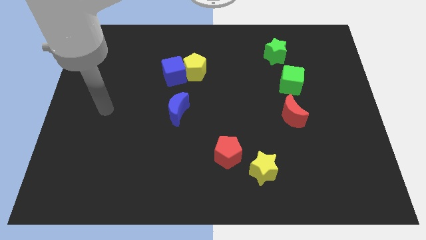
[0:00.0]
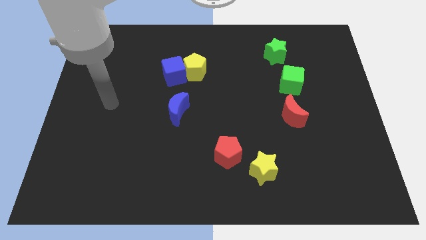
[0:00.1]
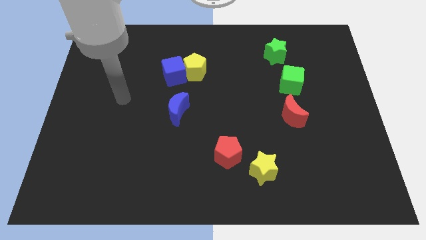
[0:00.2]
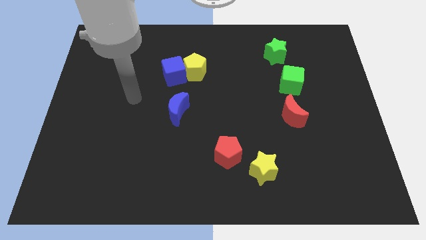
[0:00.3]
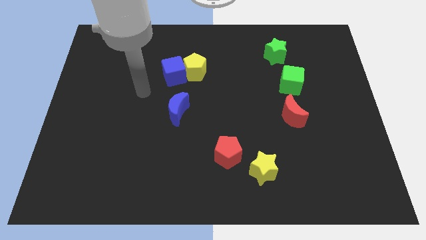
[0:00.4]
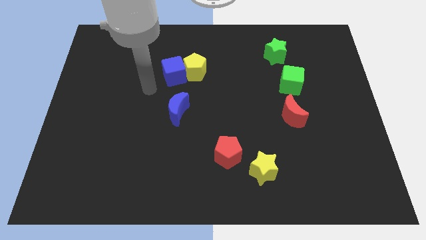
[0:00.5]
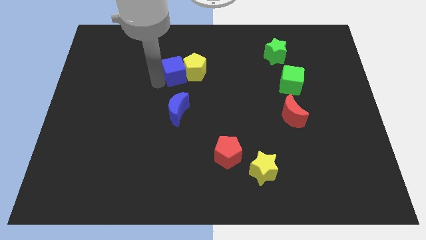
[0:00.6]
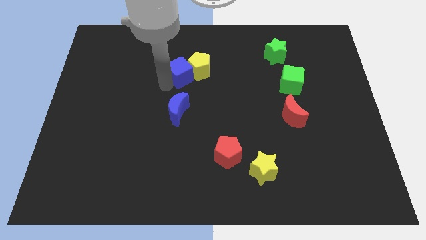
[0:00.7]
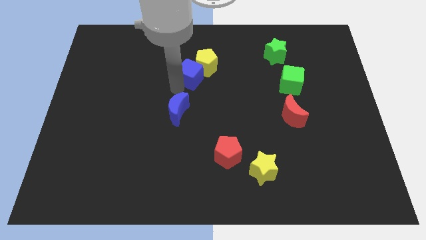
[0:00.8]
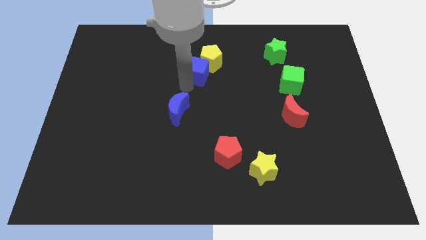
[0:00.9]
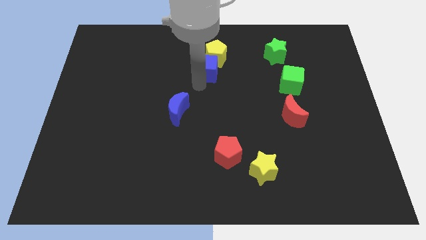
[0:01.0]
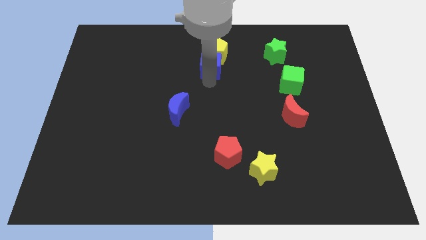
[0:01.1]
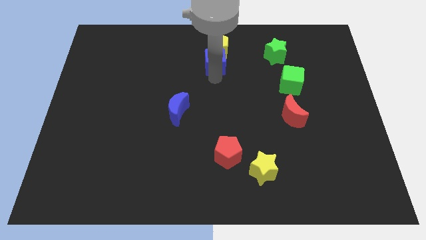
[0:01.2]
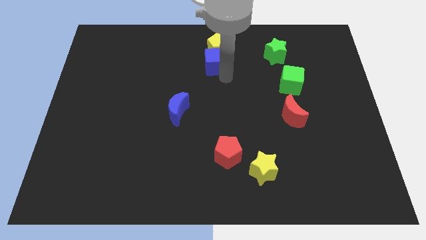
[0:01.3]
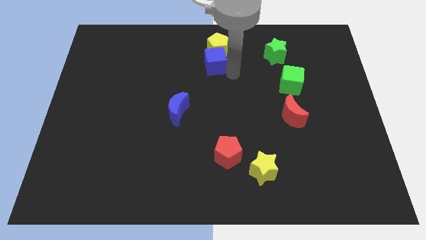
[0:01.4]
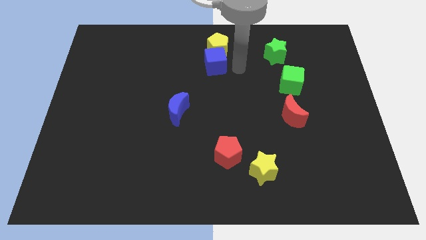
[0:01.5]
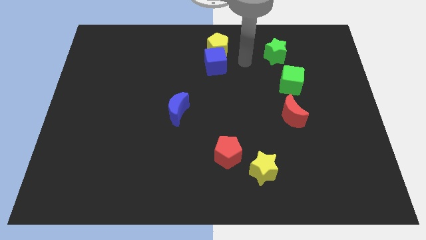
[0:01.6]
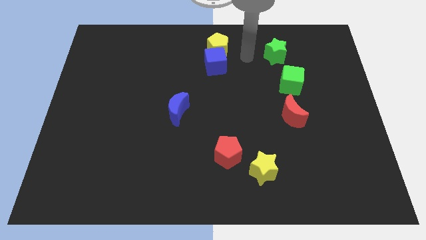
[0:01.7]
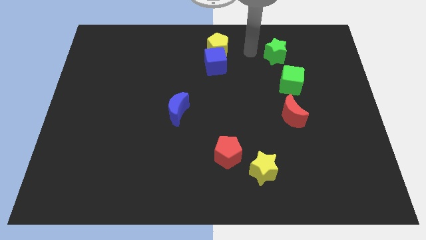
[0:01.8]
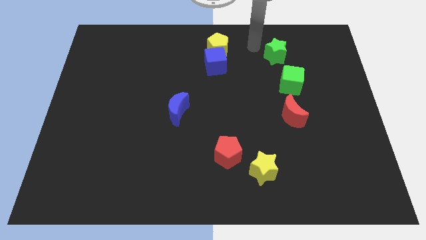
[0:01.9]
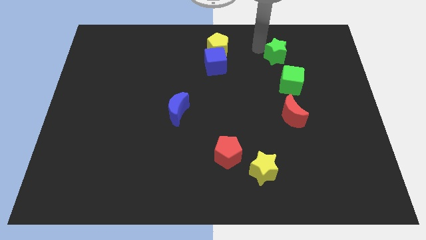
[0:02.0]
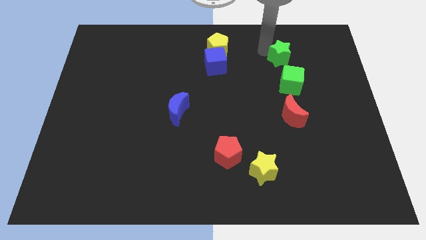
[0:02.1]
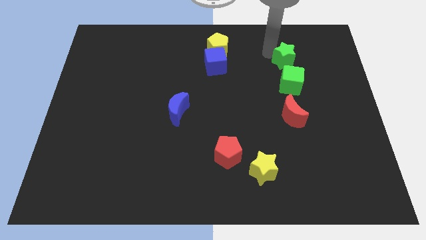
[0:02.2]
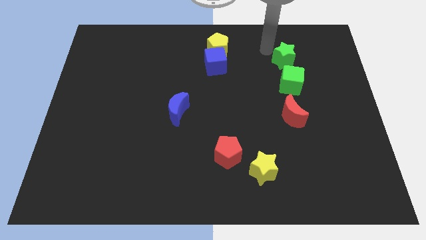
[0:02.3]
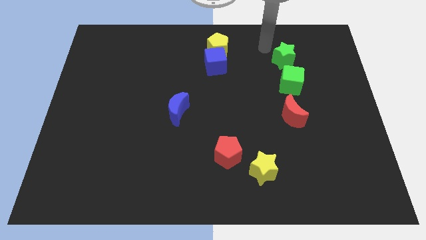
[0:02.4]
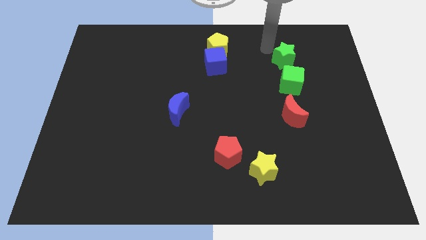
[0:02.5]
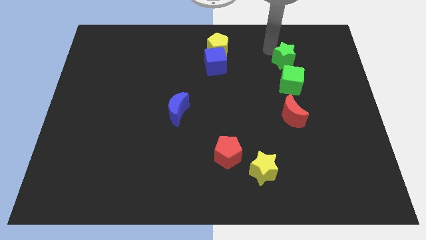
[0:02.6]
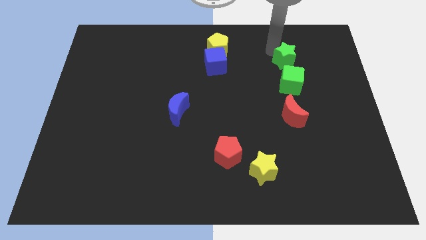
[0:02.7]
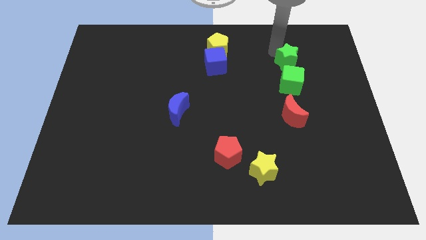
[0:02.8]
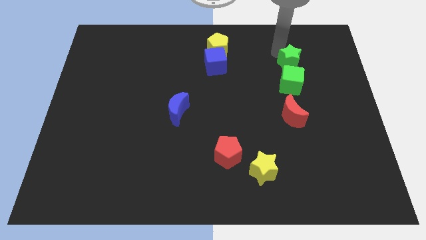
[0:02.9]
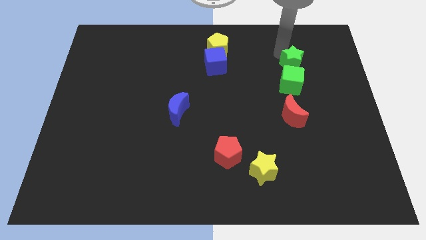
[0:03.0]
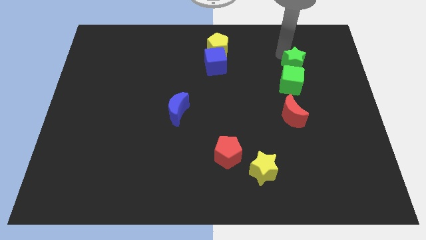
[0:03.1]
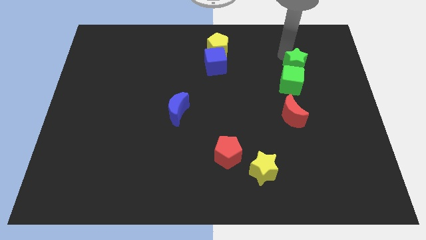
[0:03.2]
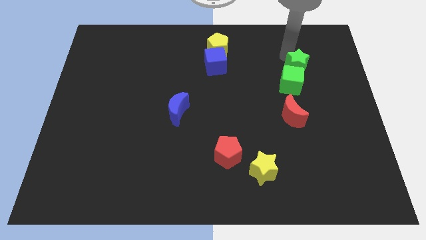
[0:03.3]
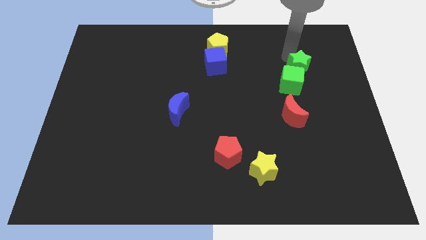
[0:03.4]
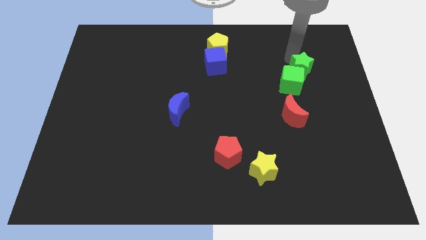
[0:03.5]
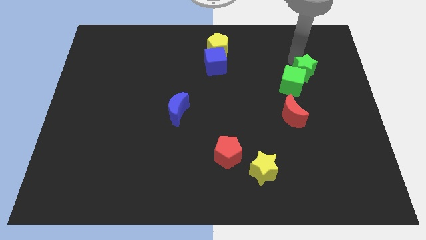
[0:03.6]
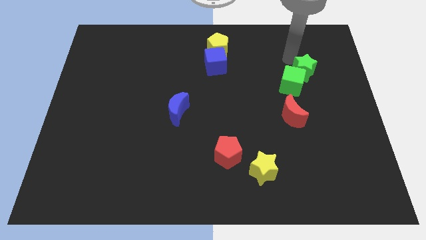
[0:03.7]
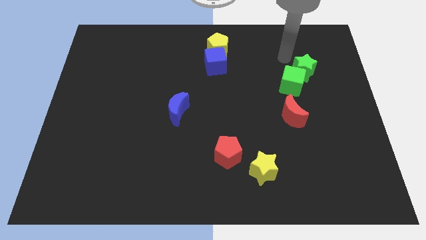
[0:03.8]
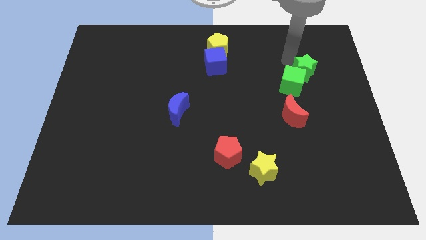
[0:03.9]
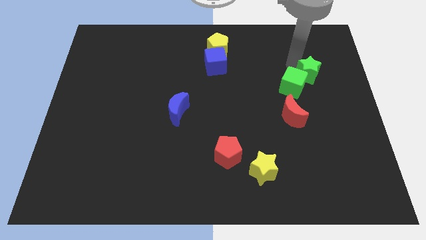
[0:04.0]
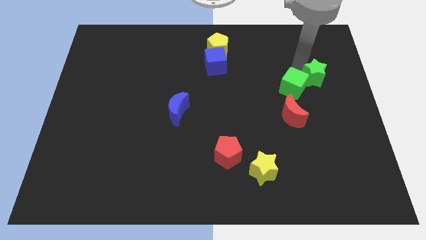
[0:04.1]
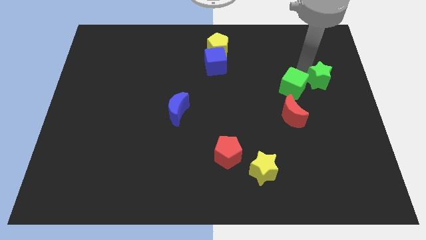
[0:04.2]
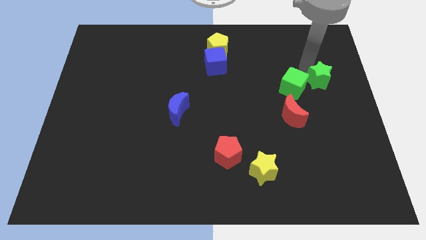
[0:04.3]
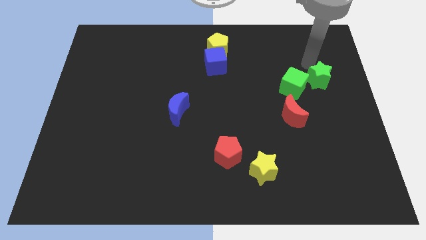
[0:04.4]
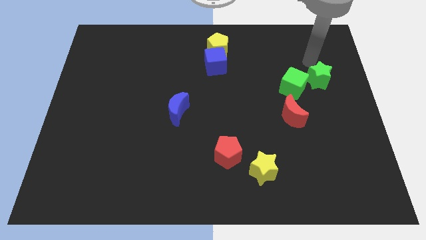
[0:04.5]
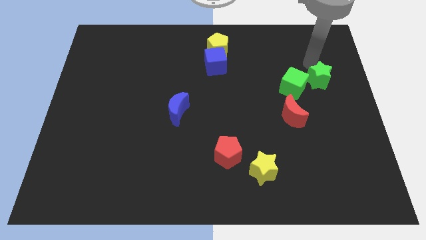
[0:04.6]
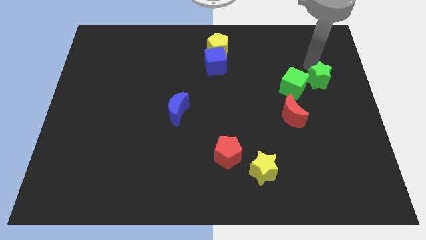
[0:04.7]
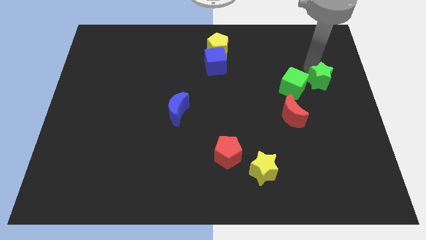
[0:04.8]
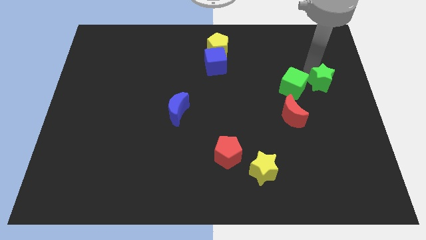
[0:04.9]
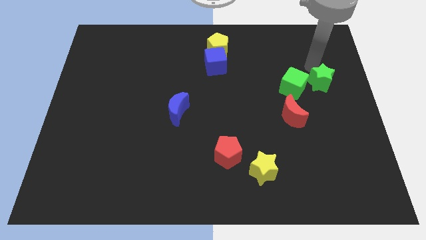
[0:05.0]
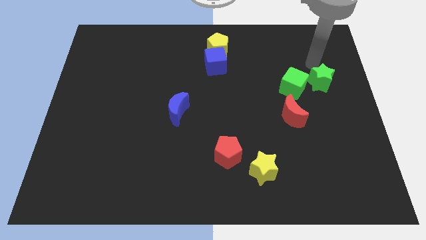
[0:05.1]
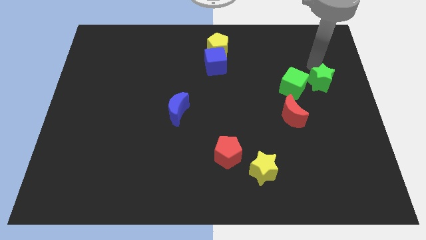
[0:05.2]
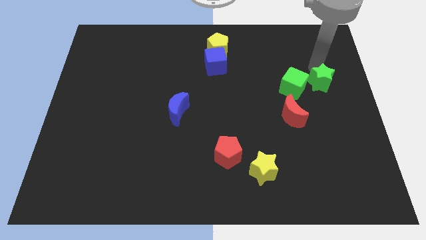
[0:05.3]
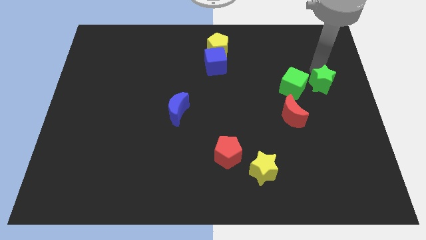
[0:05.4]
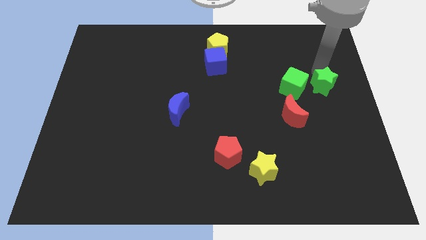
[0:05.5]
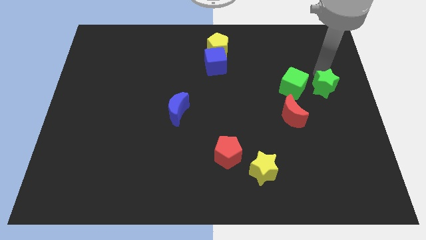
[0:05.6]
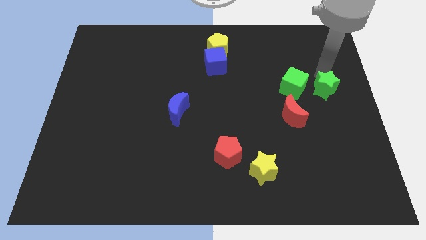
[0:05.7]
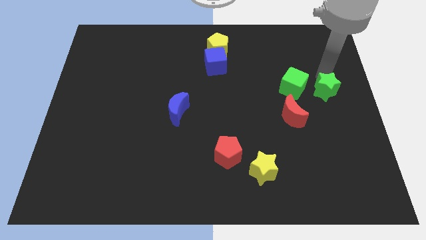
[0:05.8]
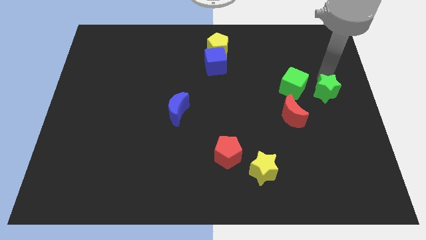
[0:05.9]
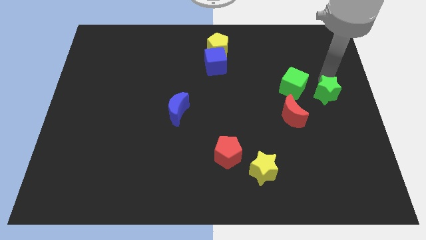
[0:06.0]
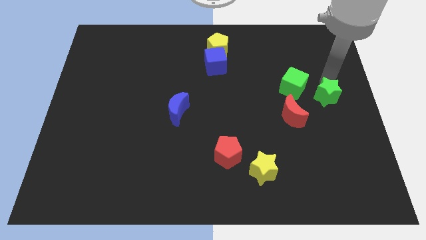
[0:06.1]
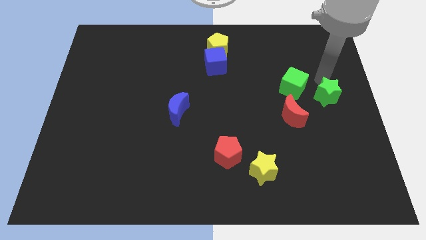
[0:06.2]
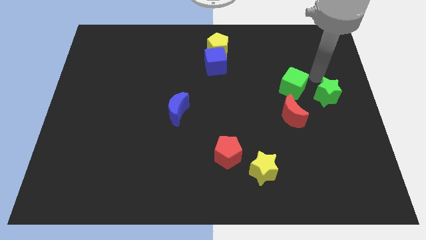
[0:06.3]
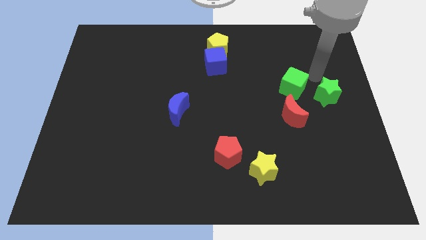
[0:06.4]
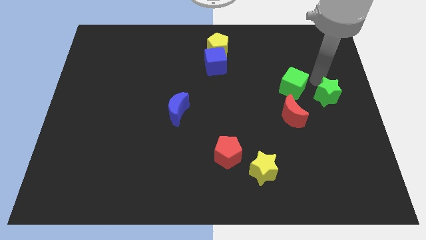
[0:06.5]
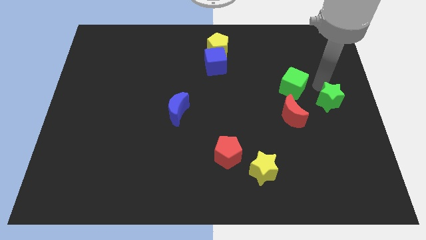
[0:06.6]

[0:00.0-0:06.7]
slide the green star just right of the red moon

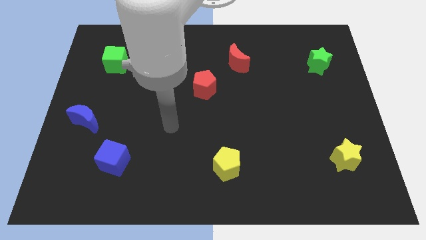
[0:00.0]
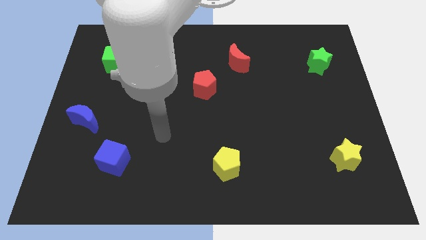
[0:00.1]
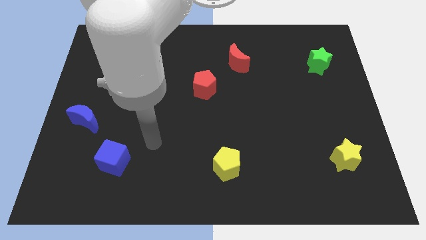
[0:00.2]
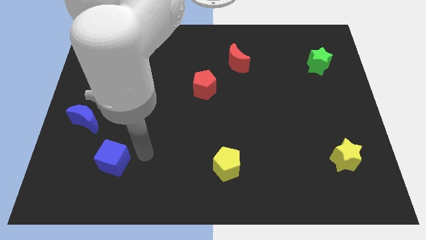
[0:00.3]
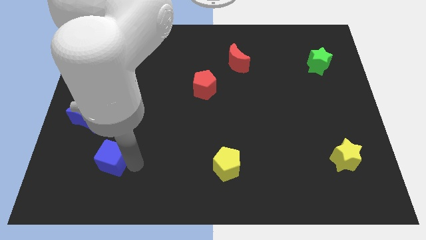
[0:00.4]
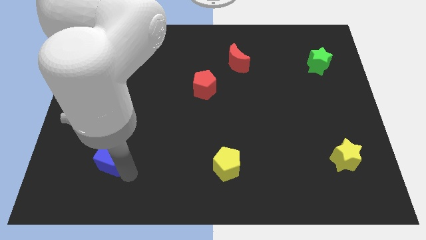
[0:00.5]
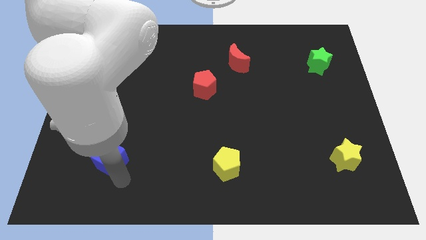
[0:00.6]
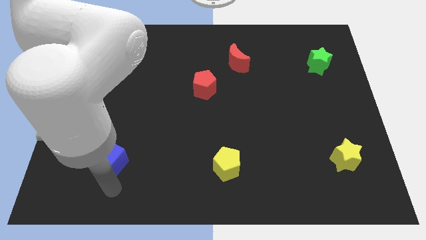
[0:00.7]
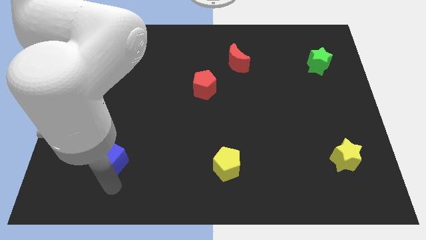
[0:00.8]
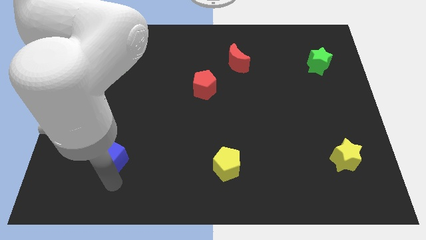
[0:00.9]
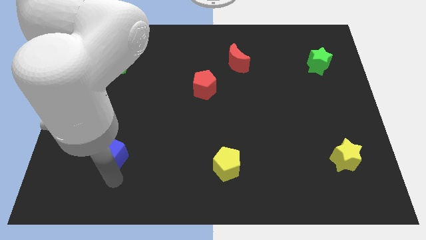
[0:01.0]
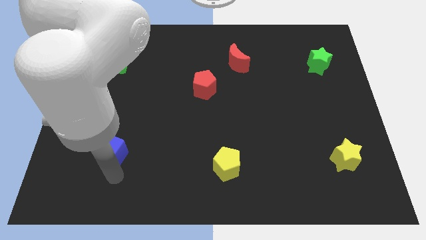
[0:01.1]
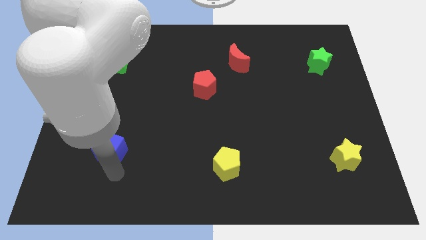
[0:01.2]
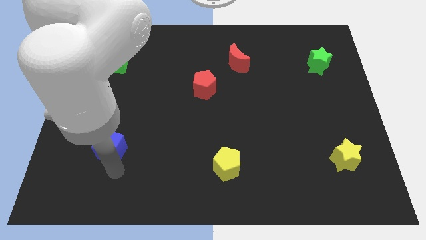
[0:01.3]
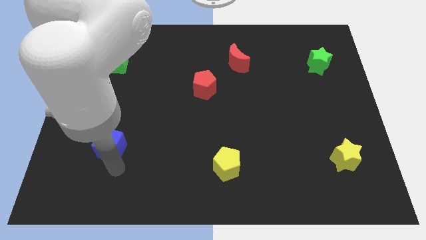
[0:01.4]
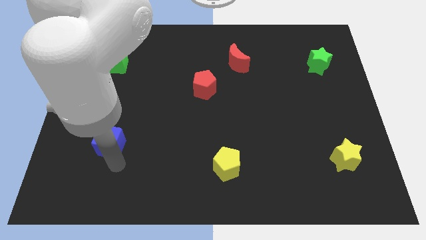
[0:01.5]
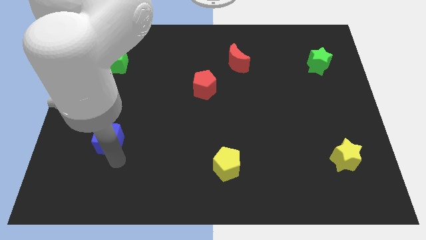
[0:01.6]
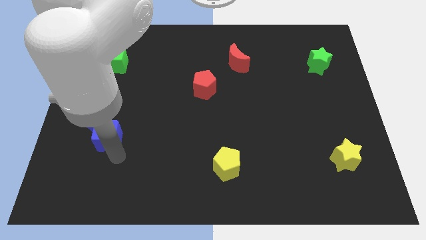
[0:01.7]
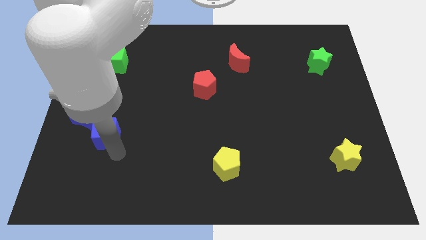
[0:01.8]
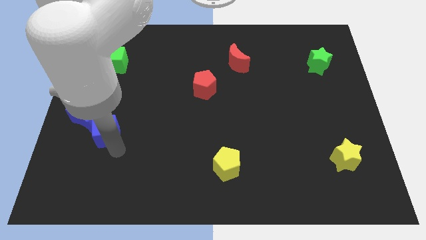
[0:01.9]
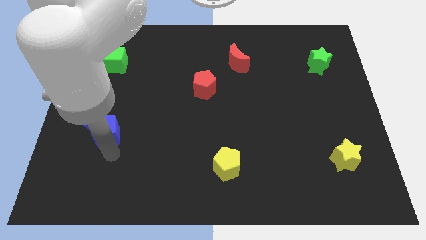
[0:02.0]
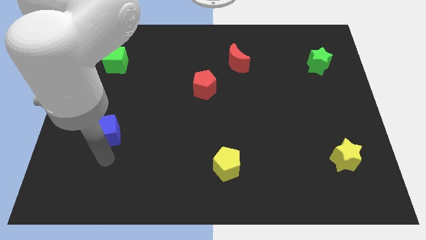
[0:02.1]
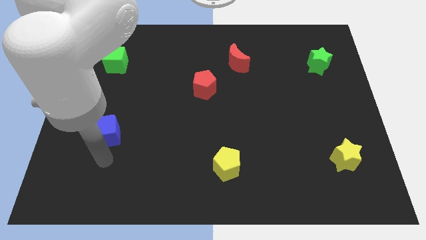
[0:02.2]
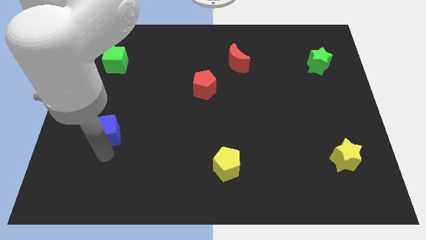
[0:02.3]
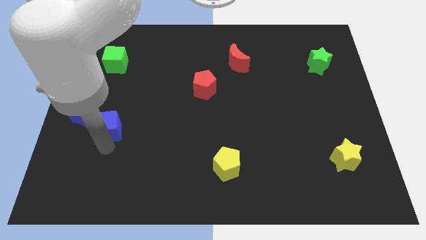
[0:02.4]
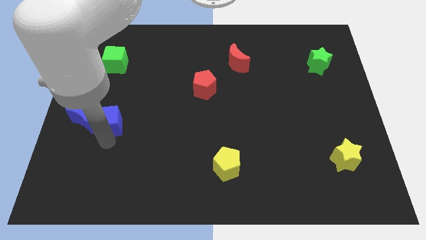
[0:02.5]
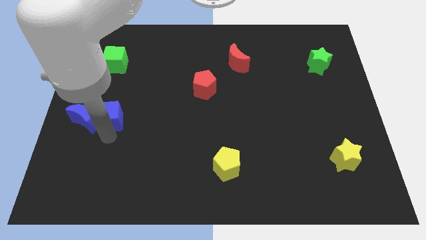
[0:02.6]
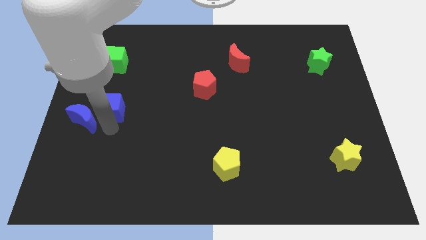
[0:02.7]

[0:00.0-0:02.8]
move the blue cube below the green cube
